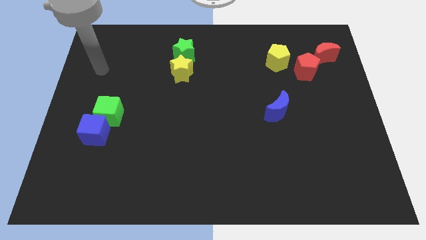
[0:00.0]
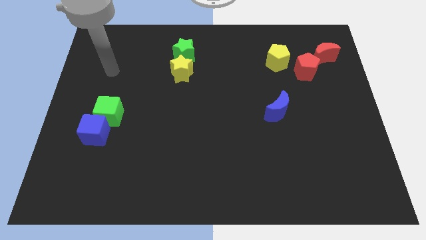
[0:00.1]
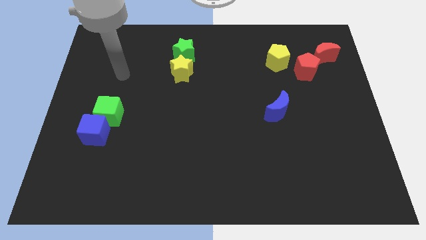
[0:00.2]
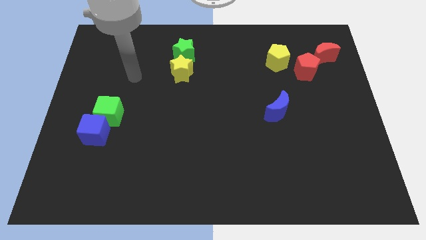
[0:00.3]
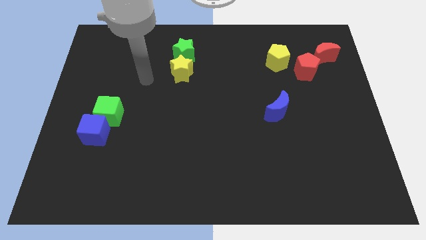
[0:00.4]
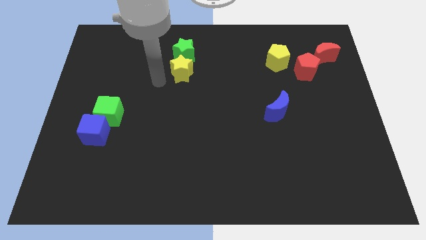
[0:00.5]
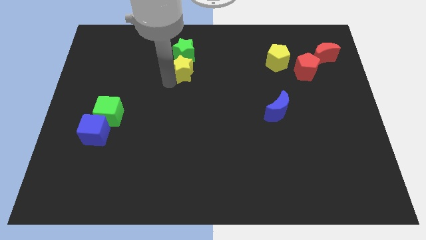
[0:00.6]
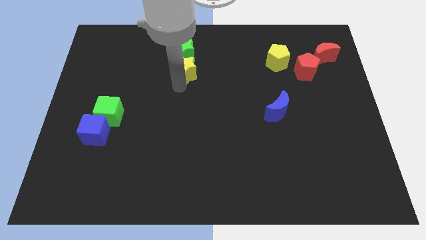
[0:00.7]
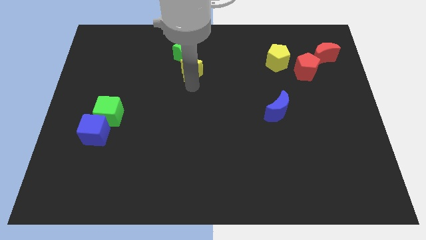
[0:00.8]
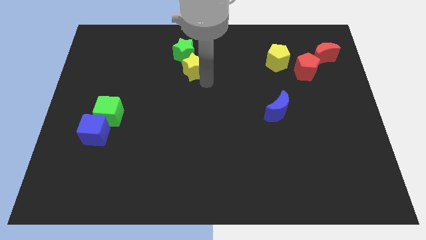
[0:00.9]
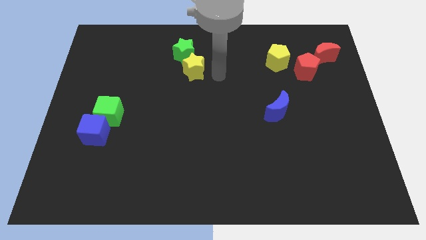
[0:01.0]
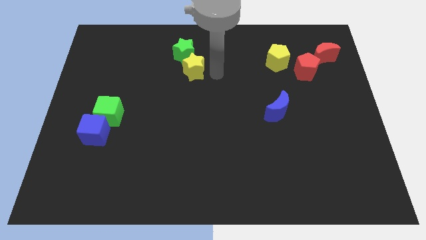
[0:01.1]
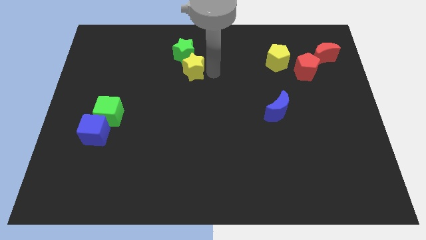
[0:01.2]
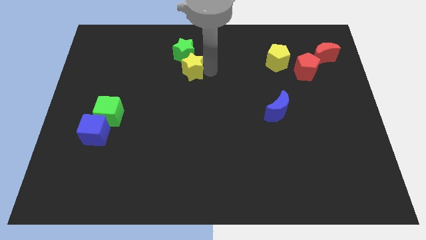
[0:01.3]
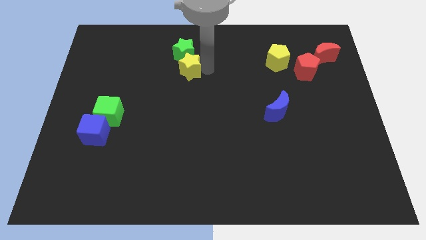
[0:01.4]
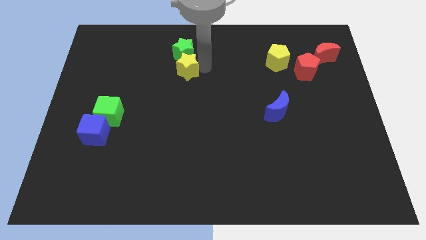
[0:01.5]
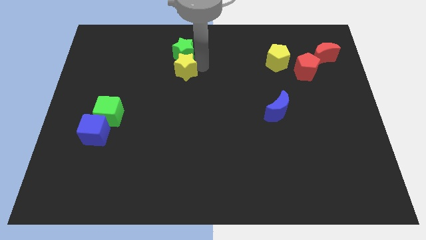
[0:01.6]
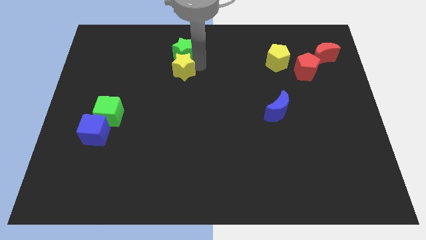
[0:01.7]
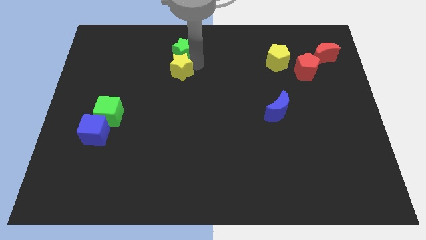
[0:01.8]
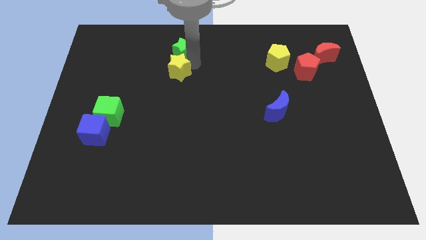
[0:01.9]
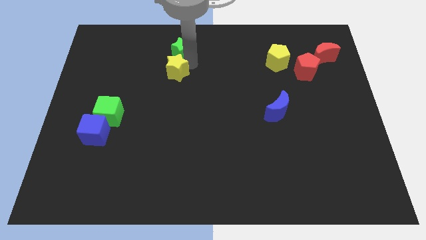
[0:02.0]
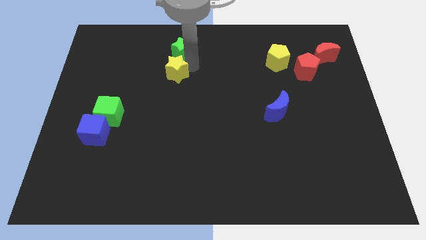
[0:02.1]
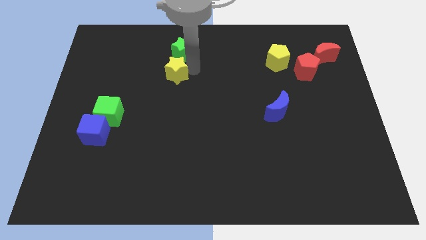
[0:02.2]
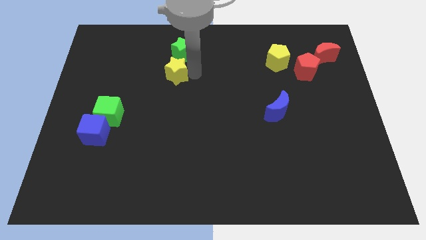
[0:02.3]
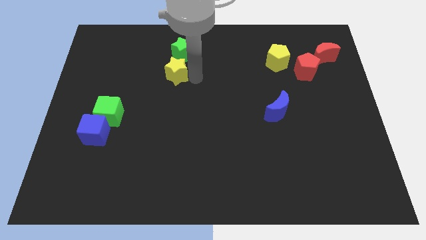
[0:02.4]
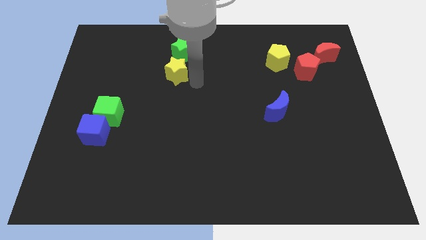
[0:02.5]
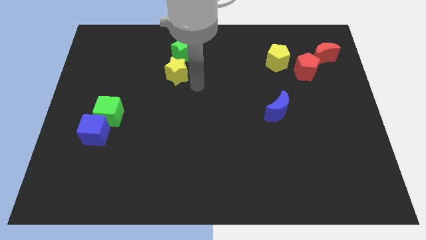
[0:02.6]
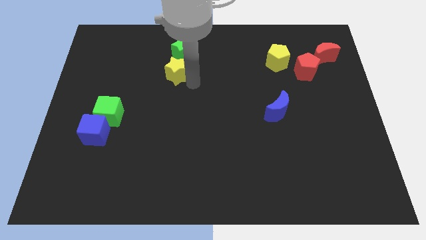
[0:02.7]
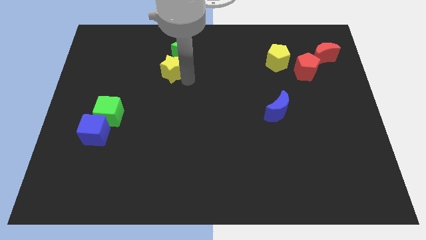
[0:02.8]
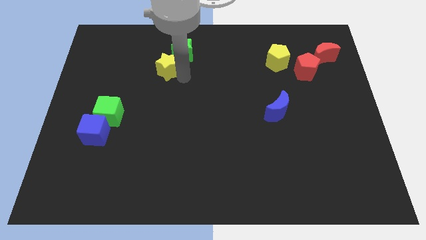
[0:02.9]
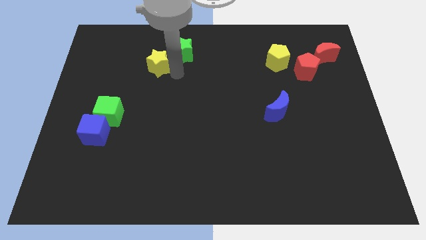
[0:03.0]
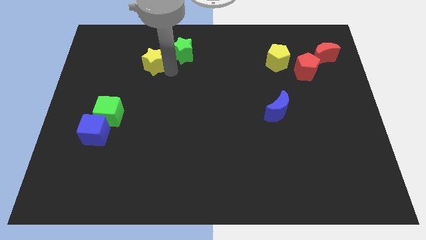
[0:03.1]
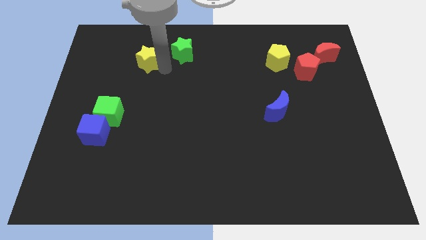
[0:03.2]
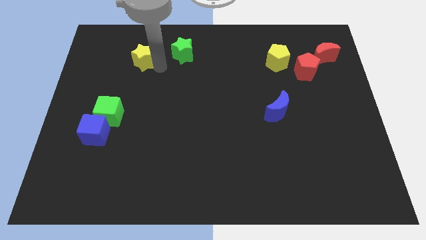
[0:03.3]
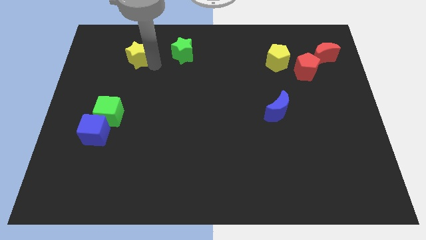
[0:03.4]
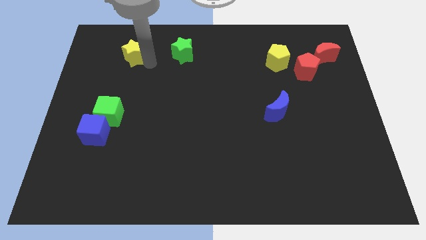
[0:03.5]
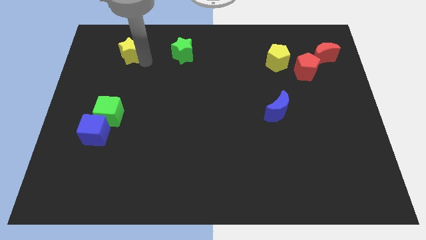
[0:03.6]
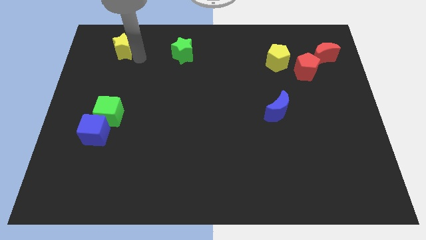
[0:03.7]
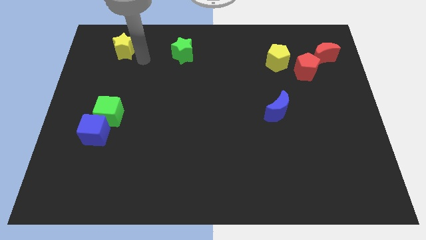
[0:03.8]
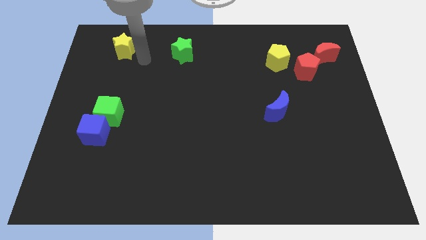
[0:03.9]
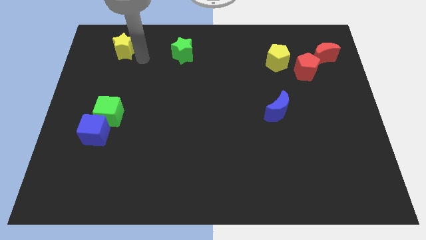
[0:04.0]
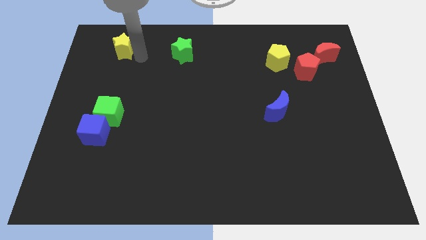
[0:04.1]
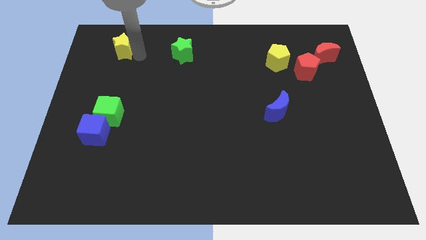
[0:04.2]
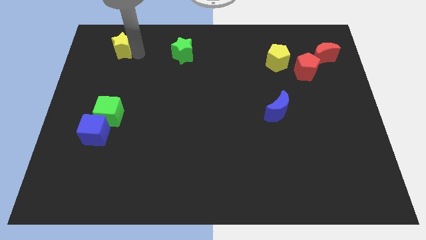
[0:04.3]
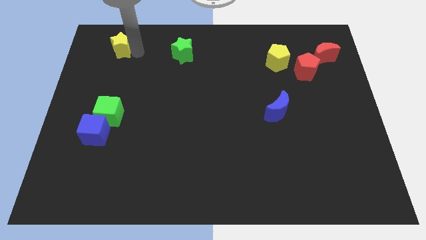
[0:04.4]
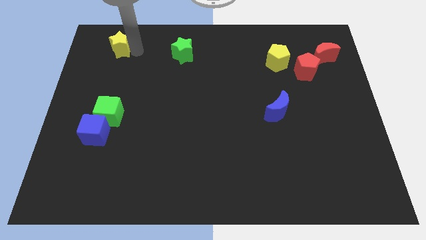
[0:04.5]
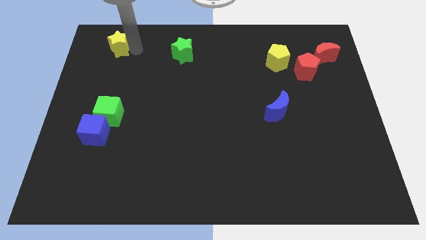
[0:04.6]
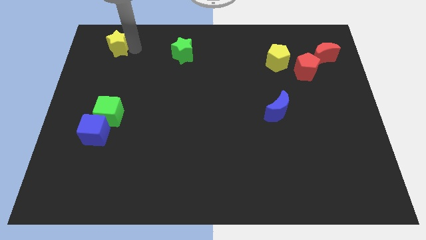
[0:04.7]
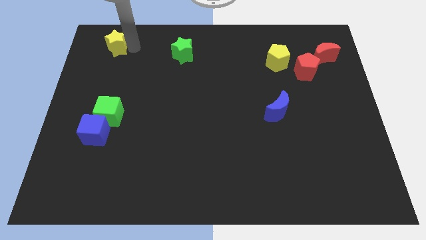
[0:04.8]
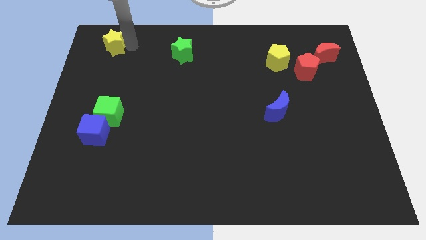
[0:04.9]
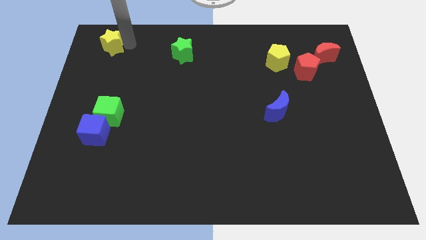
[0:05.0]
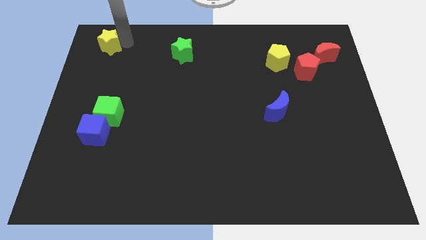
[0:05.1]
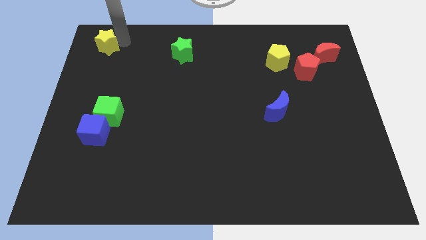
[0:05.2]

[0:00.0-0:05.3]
push the yellow star to the top left of the board

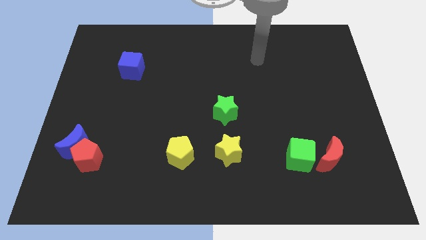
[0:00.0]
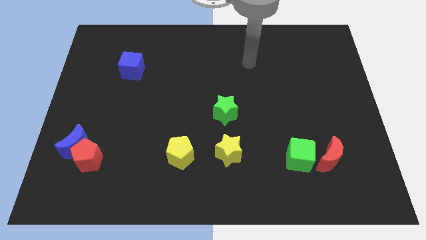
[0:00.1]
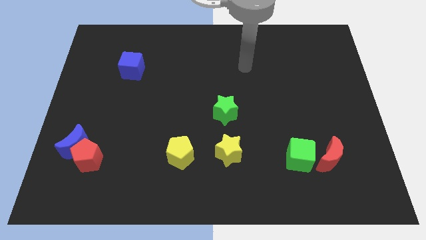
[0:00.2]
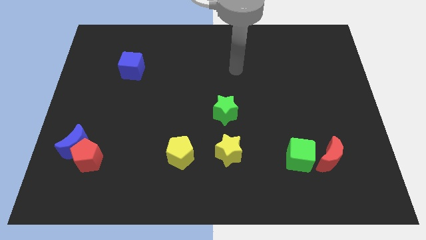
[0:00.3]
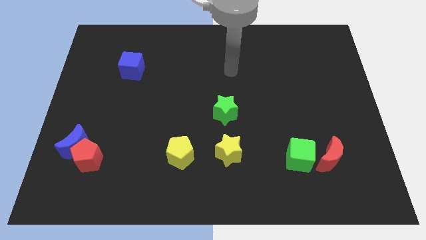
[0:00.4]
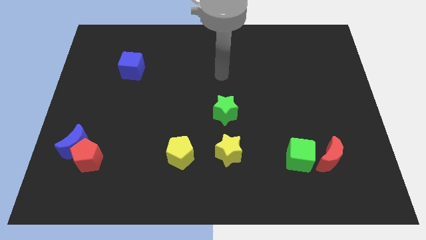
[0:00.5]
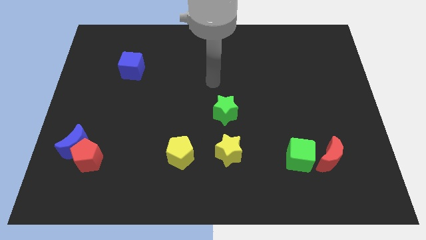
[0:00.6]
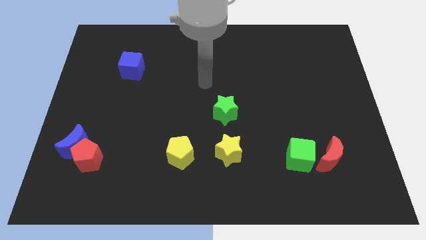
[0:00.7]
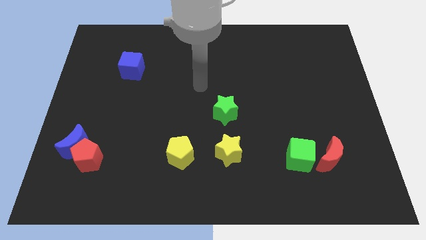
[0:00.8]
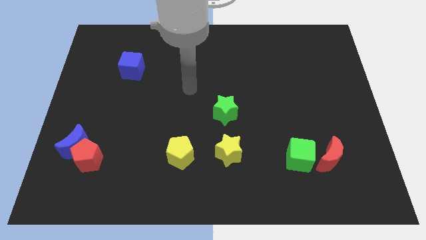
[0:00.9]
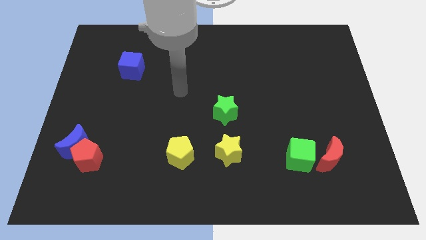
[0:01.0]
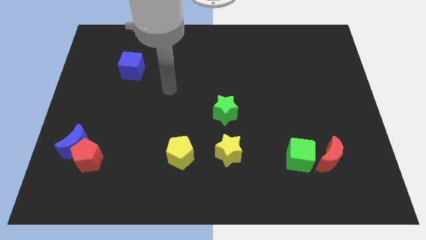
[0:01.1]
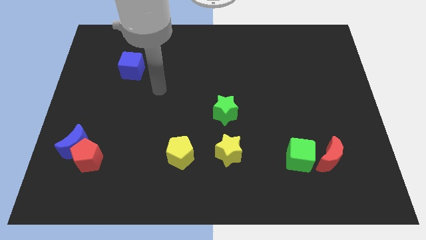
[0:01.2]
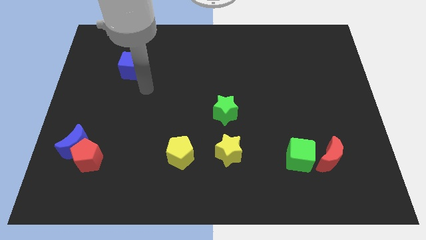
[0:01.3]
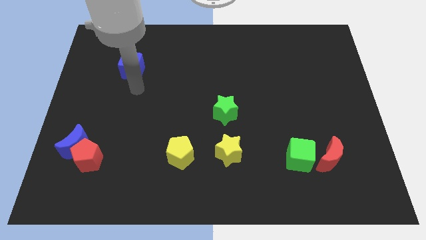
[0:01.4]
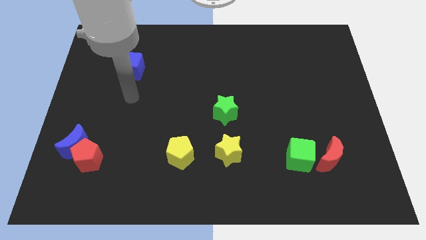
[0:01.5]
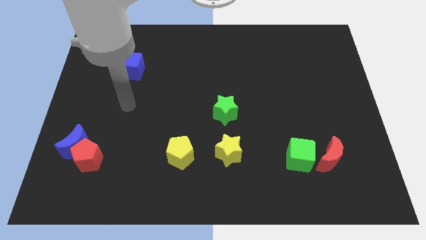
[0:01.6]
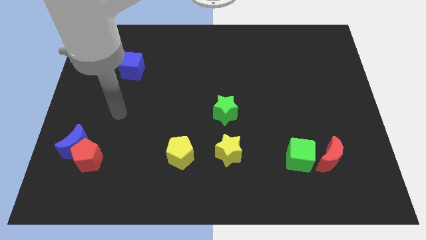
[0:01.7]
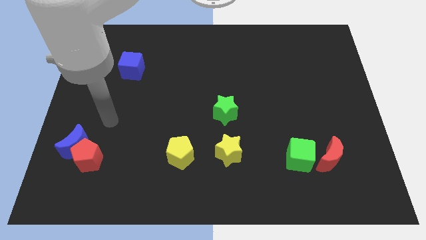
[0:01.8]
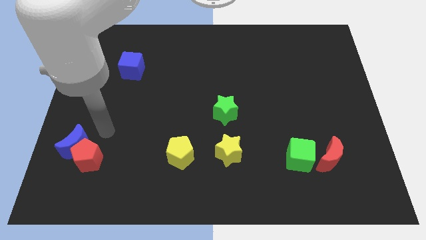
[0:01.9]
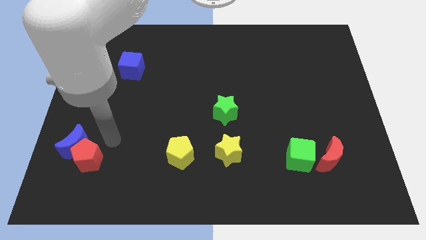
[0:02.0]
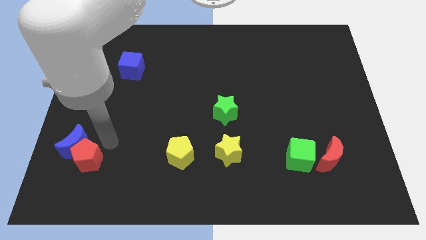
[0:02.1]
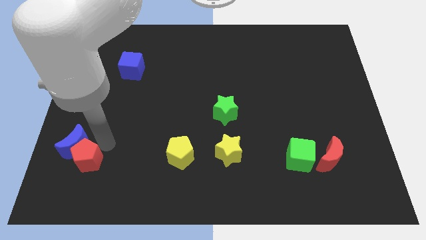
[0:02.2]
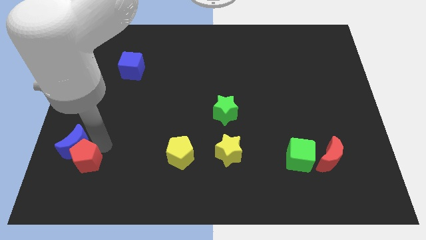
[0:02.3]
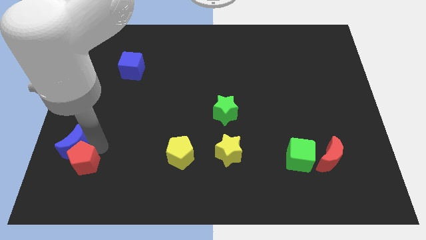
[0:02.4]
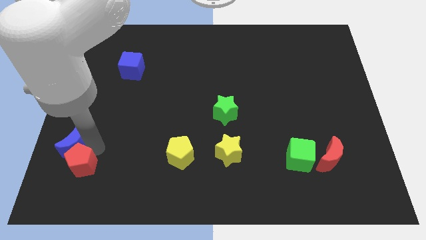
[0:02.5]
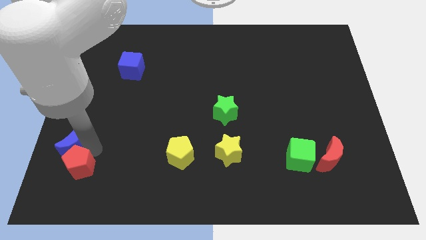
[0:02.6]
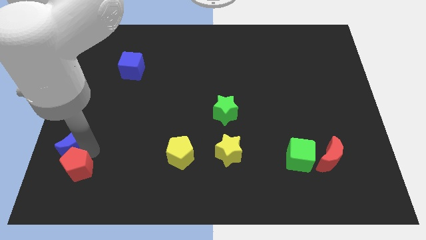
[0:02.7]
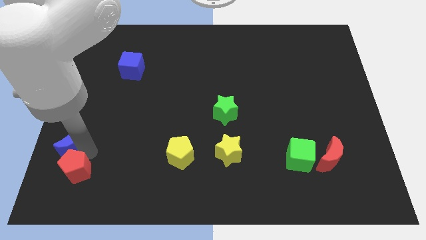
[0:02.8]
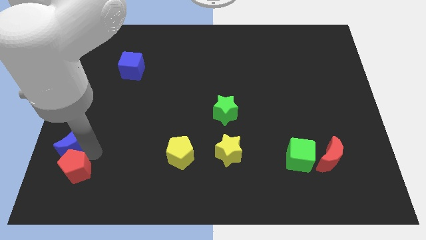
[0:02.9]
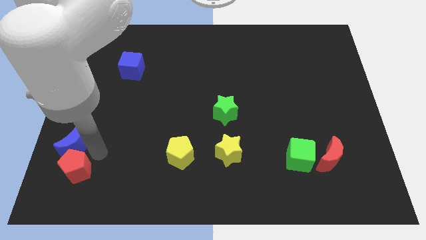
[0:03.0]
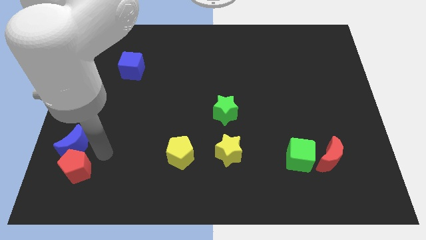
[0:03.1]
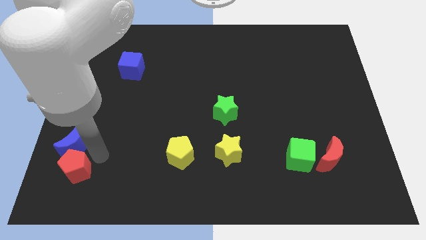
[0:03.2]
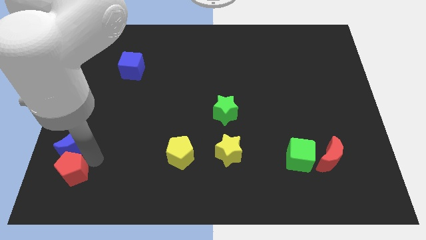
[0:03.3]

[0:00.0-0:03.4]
slide the red pentagon to the bottom left of the board
